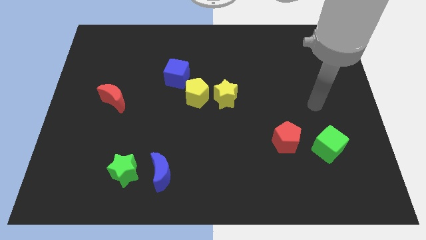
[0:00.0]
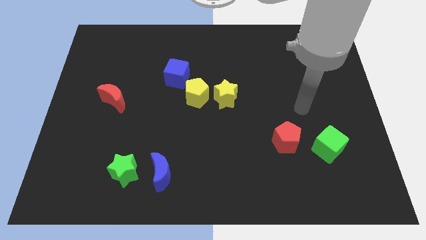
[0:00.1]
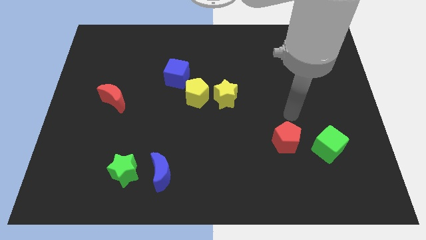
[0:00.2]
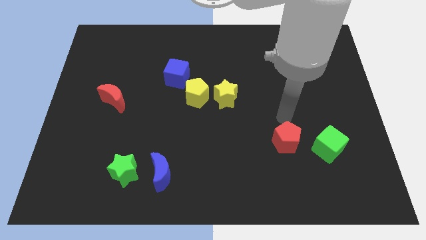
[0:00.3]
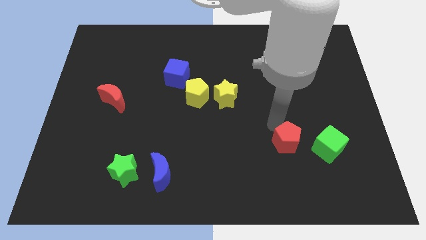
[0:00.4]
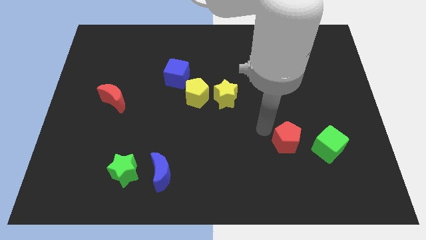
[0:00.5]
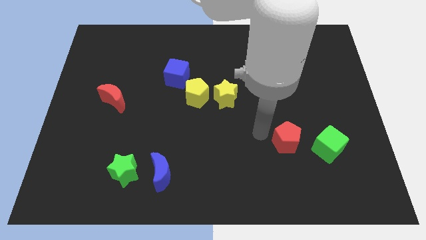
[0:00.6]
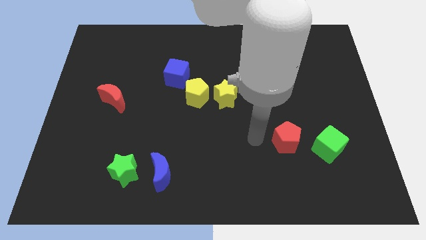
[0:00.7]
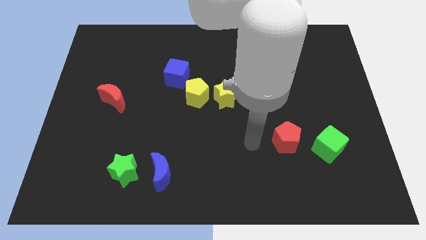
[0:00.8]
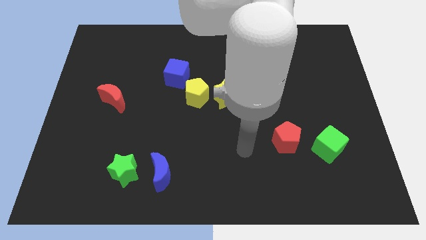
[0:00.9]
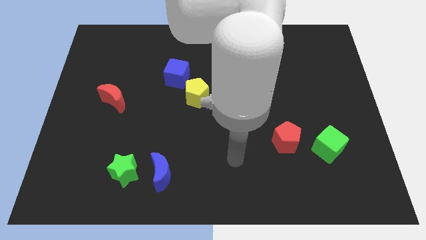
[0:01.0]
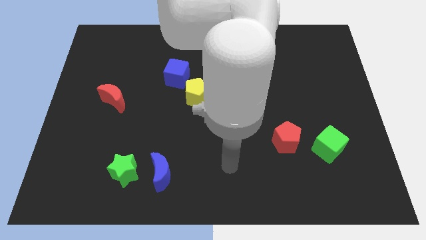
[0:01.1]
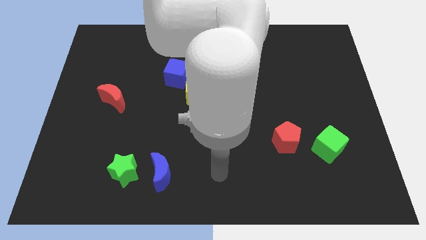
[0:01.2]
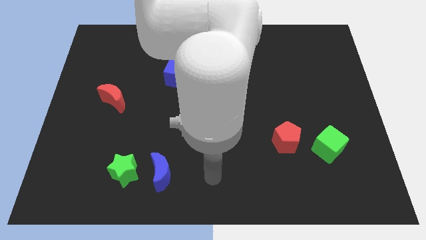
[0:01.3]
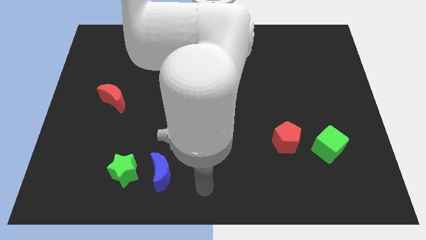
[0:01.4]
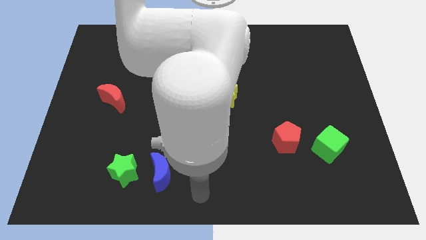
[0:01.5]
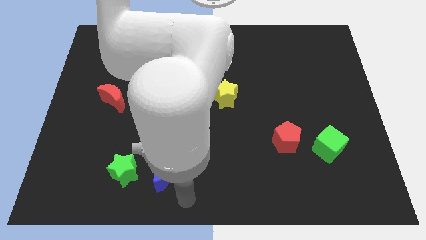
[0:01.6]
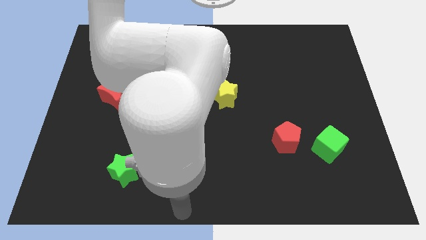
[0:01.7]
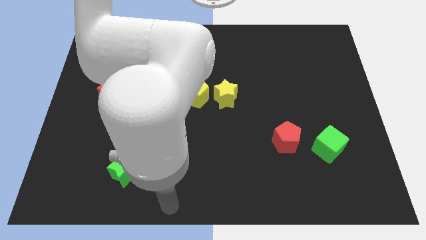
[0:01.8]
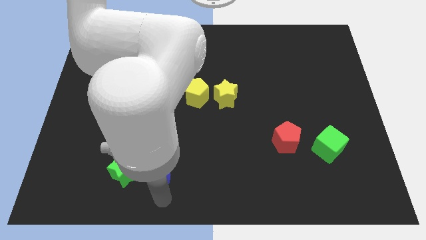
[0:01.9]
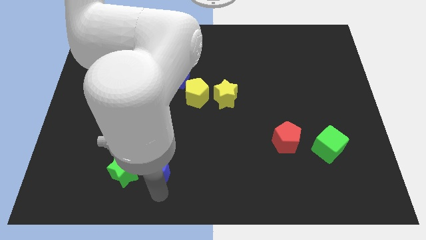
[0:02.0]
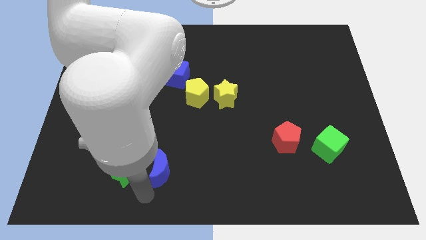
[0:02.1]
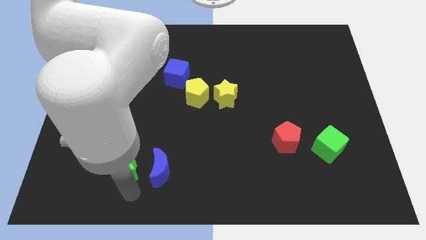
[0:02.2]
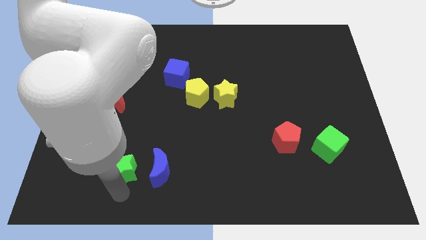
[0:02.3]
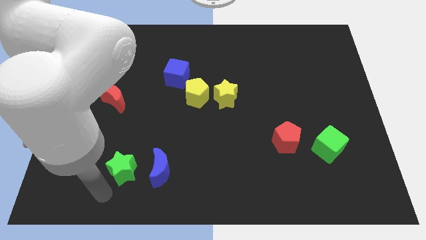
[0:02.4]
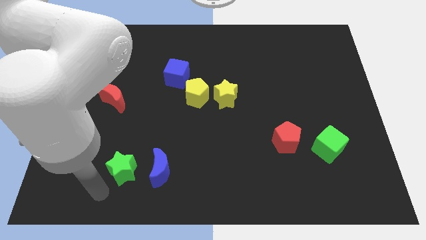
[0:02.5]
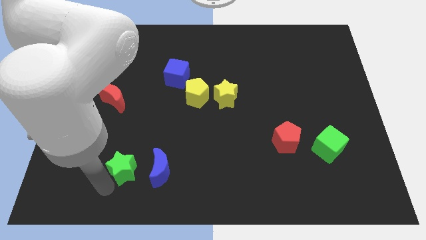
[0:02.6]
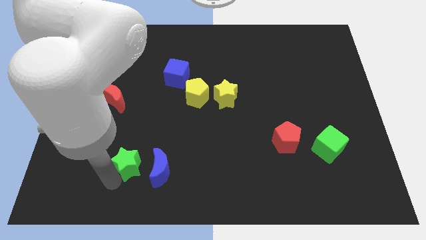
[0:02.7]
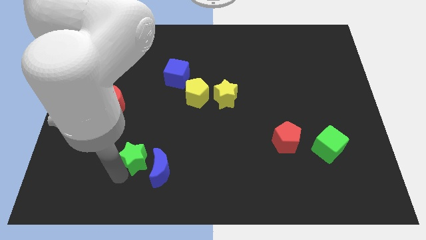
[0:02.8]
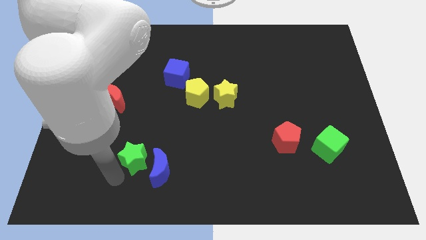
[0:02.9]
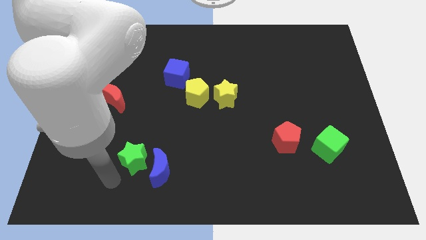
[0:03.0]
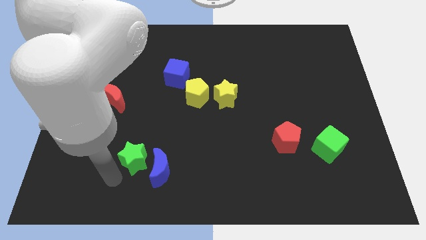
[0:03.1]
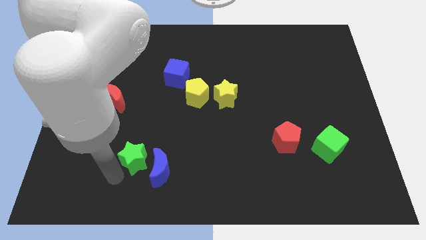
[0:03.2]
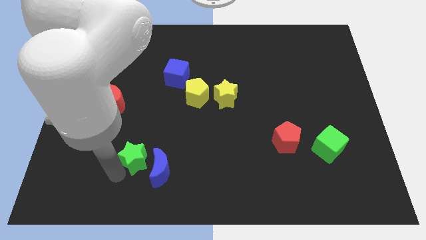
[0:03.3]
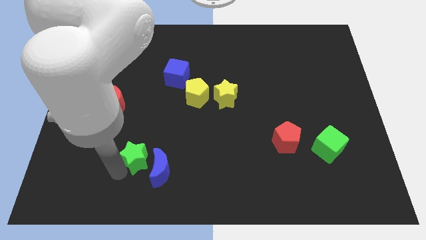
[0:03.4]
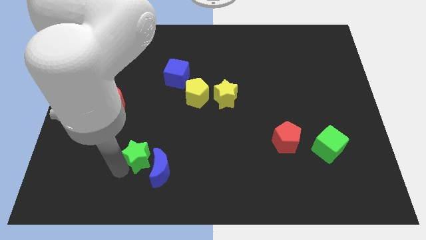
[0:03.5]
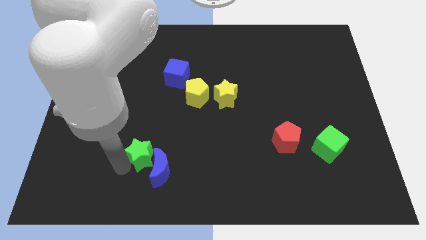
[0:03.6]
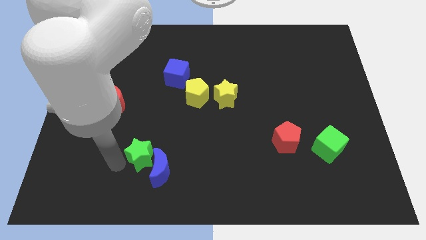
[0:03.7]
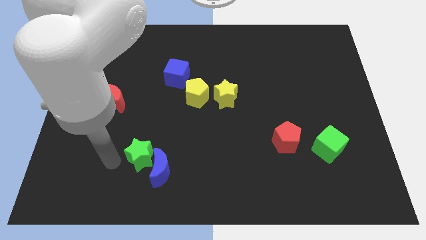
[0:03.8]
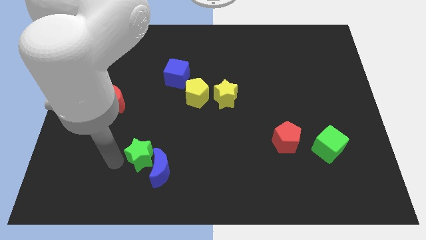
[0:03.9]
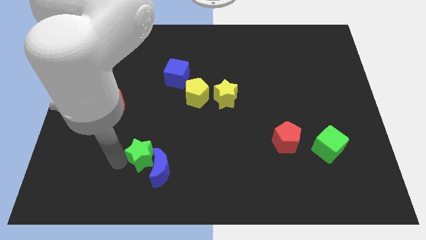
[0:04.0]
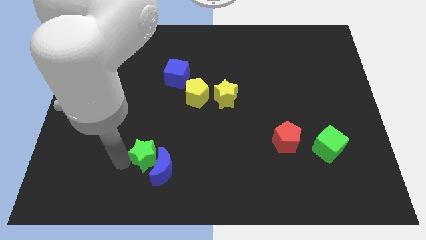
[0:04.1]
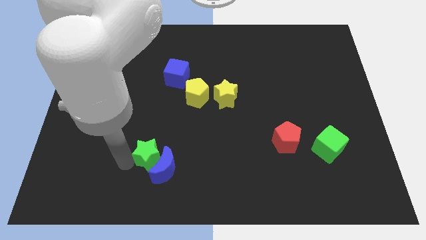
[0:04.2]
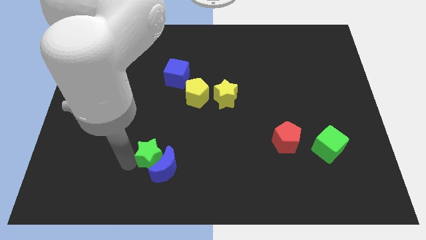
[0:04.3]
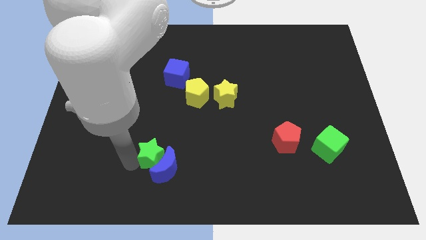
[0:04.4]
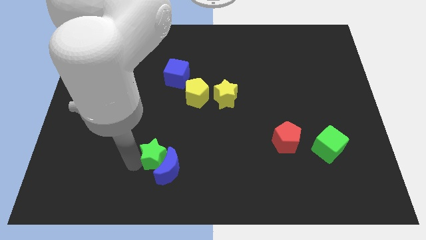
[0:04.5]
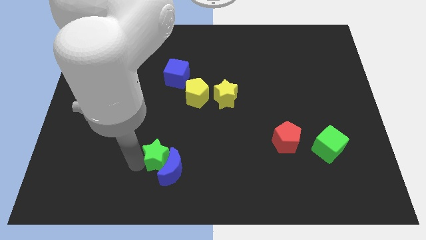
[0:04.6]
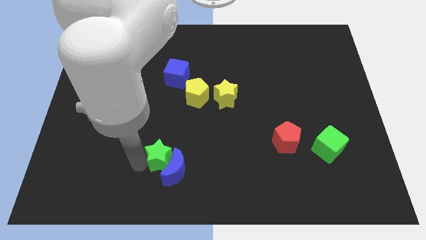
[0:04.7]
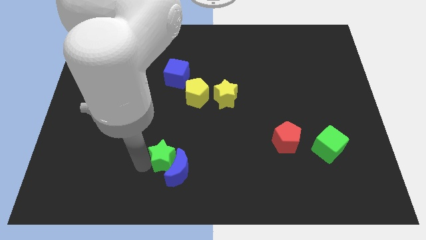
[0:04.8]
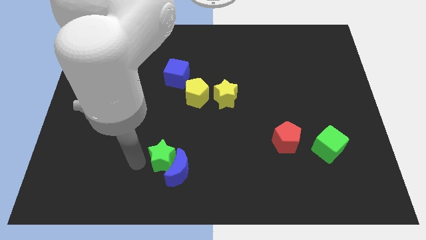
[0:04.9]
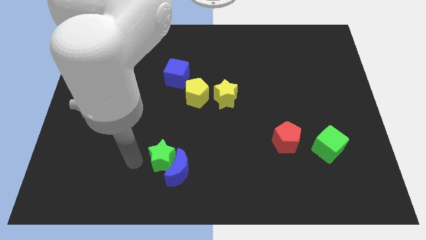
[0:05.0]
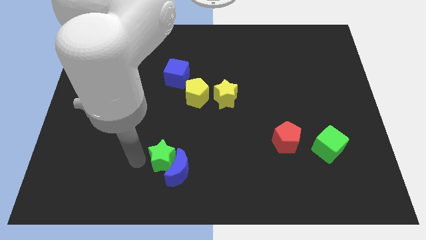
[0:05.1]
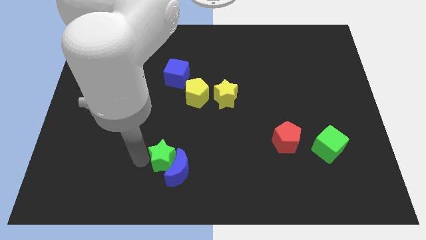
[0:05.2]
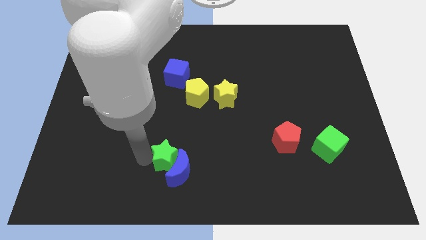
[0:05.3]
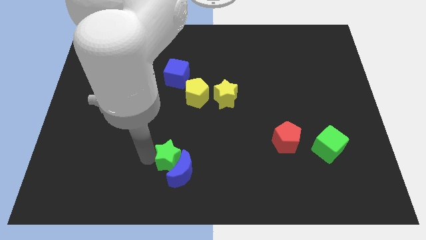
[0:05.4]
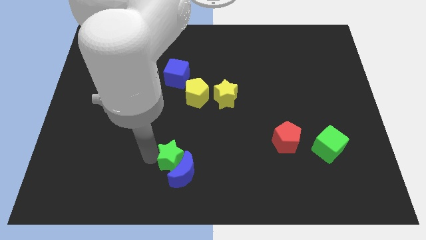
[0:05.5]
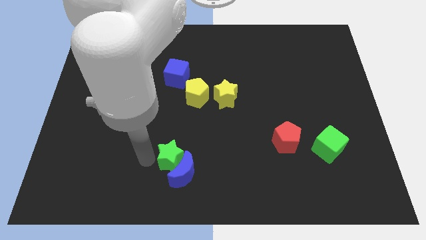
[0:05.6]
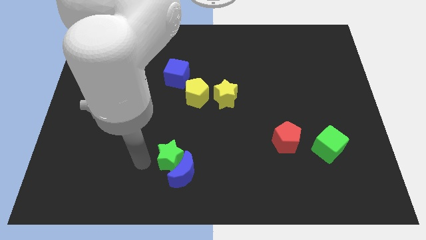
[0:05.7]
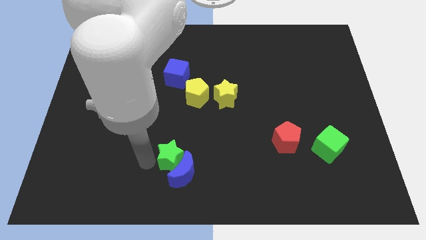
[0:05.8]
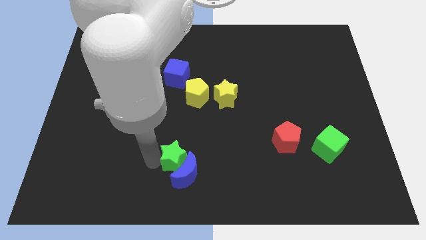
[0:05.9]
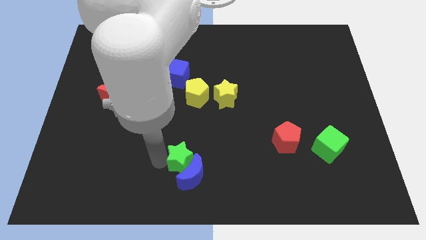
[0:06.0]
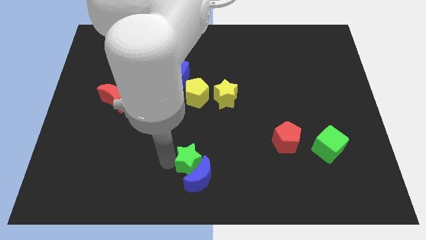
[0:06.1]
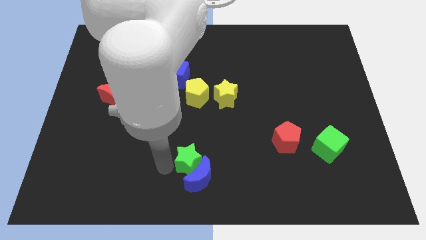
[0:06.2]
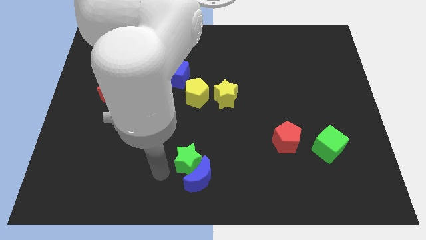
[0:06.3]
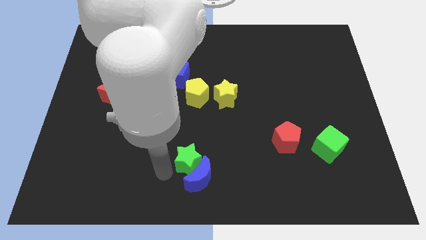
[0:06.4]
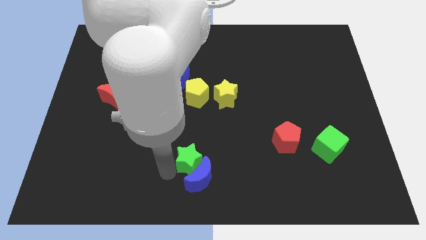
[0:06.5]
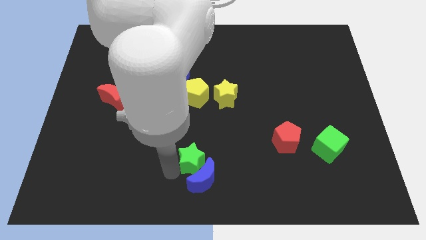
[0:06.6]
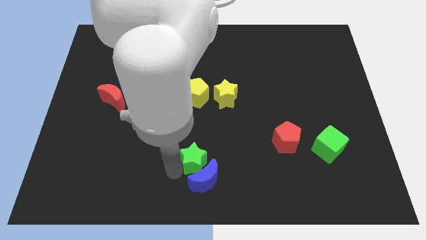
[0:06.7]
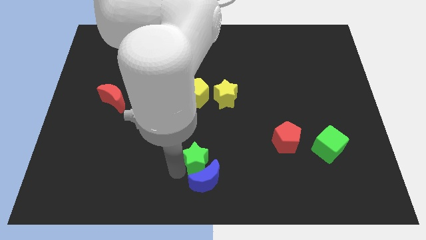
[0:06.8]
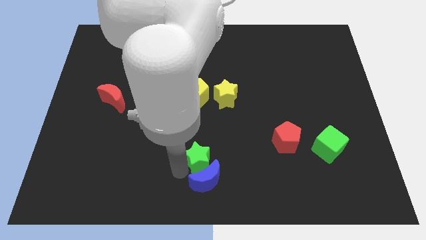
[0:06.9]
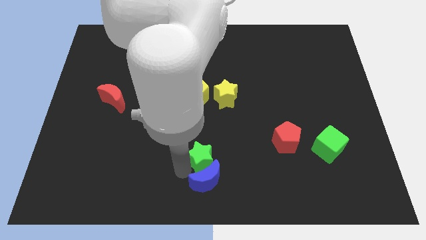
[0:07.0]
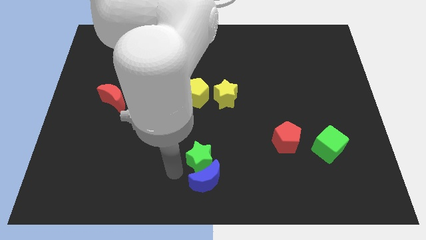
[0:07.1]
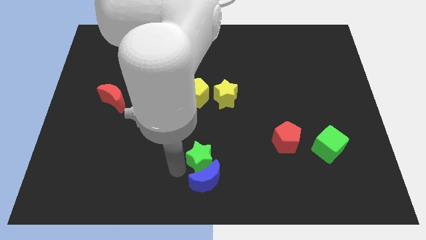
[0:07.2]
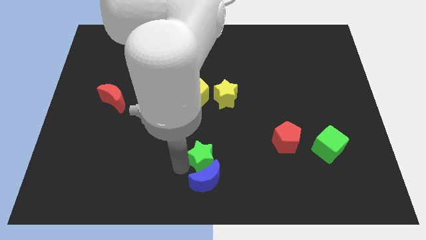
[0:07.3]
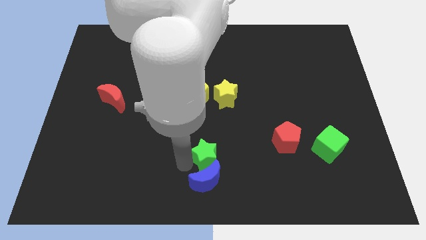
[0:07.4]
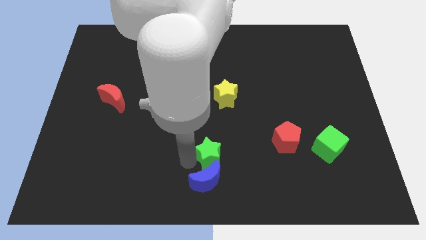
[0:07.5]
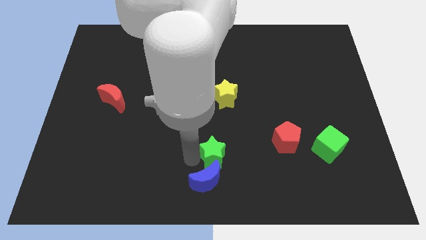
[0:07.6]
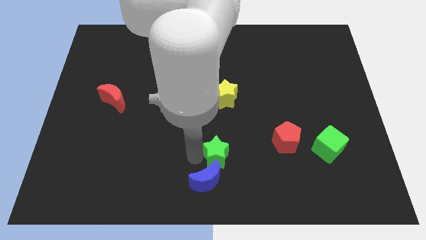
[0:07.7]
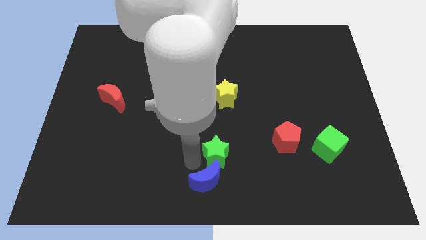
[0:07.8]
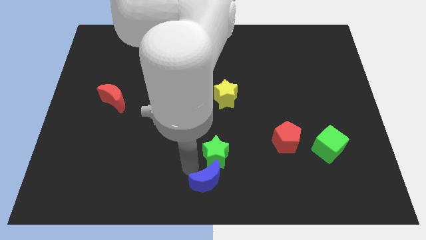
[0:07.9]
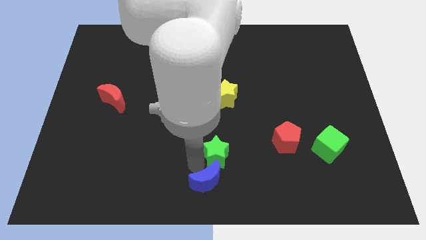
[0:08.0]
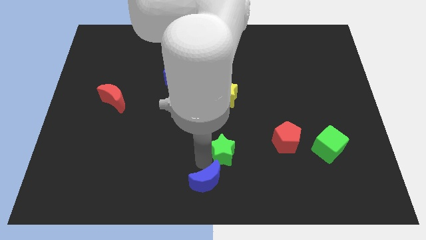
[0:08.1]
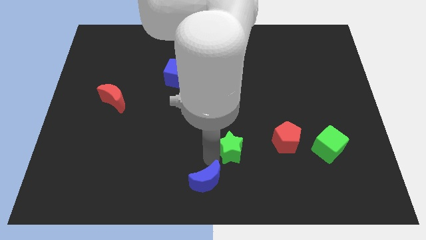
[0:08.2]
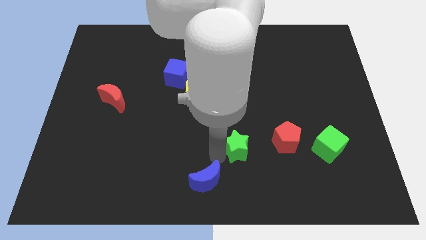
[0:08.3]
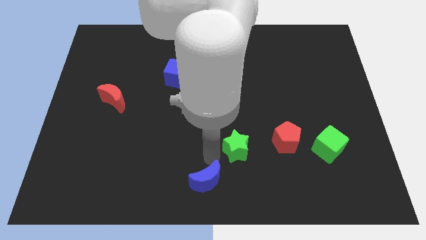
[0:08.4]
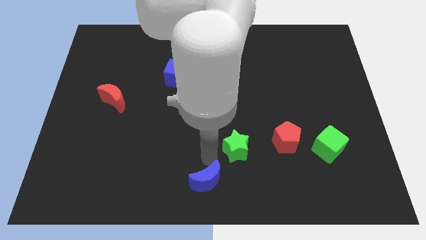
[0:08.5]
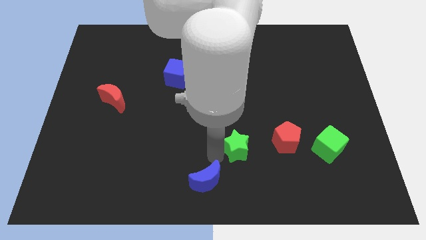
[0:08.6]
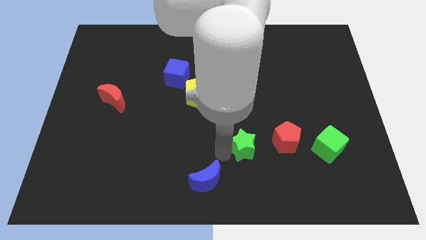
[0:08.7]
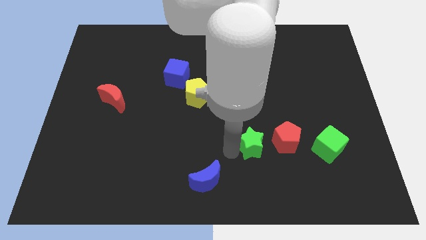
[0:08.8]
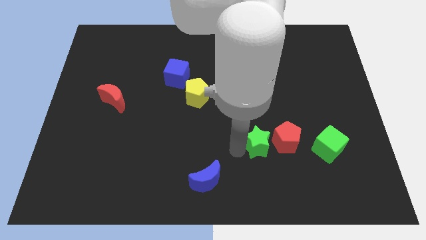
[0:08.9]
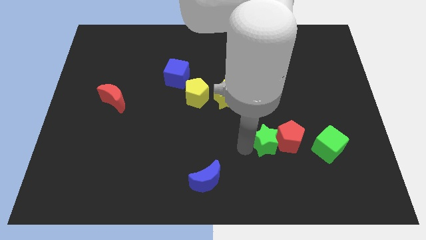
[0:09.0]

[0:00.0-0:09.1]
slide the green star close to the red pentagon
